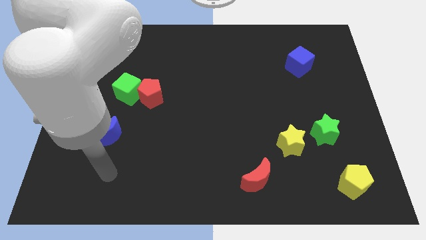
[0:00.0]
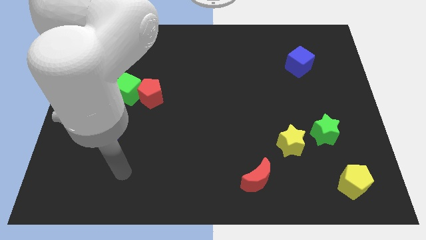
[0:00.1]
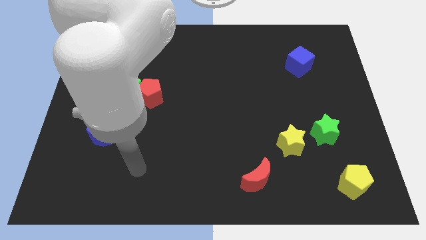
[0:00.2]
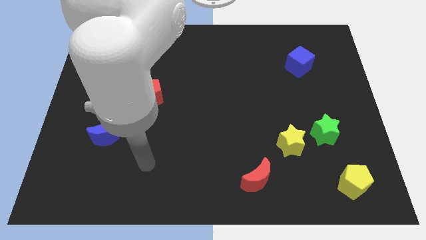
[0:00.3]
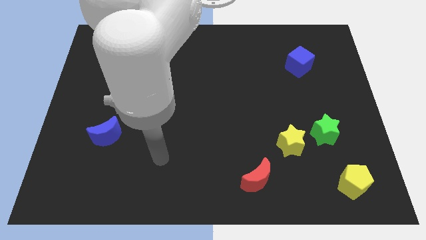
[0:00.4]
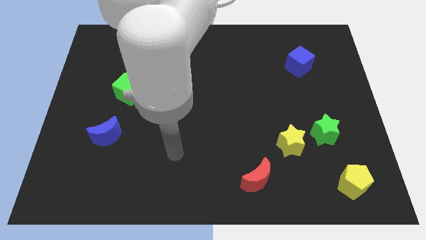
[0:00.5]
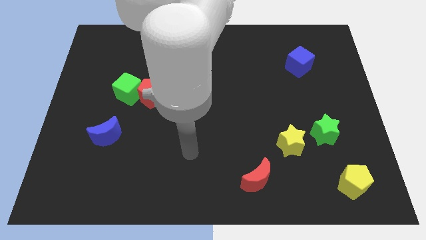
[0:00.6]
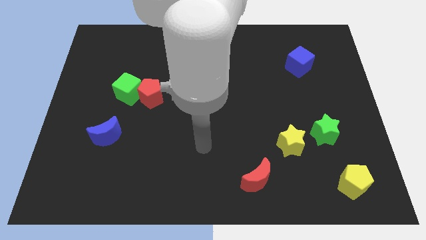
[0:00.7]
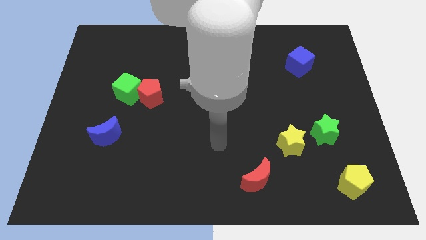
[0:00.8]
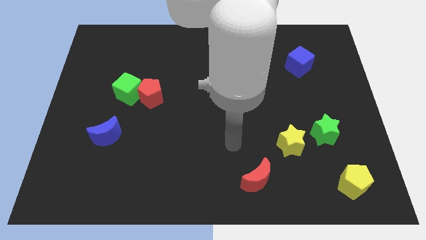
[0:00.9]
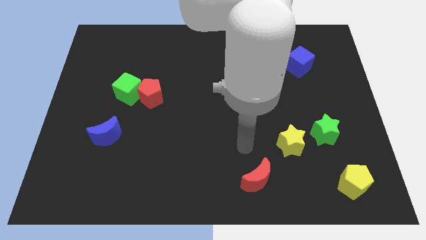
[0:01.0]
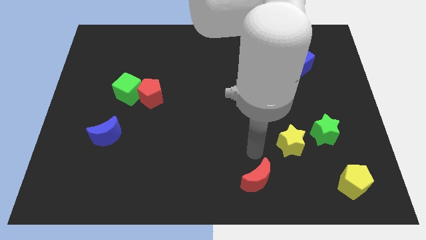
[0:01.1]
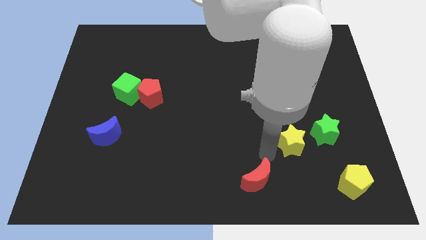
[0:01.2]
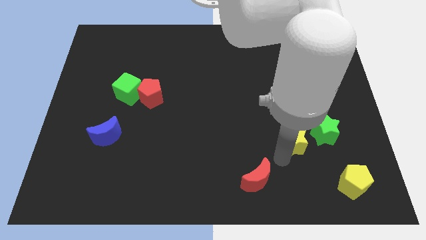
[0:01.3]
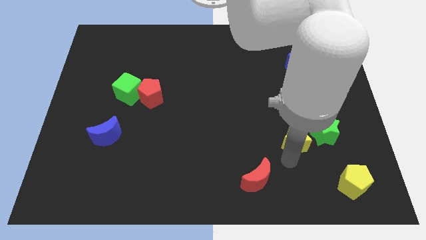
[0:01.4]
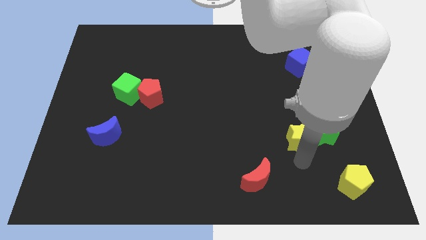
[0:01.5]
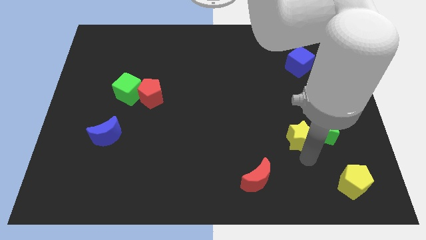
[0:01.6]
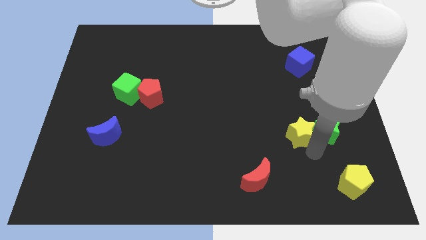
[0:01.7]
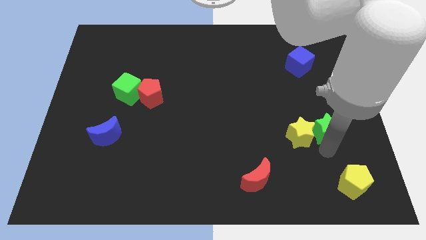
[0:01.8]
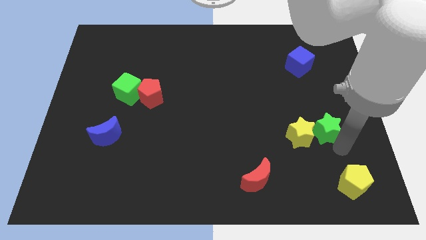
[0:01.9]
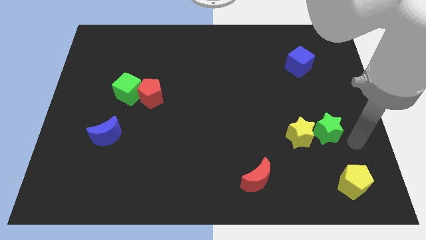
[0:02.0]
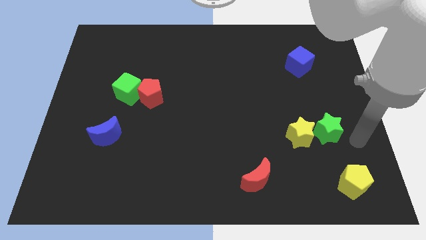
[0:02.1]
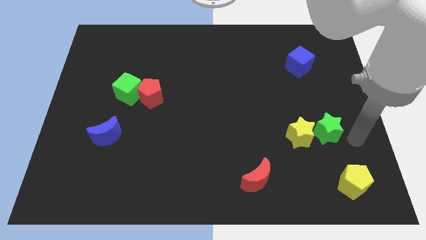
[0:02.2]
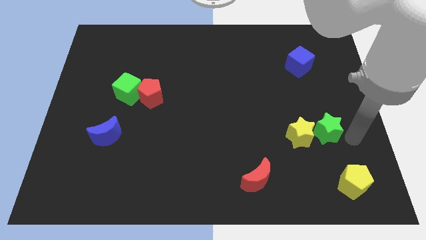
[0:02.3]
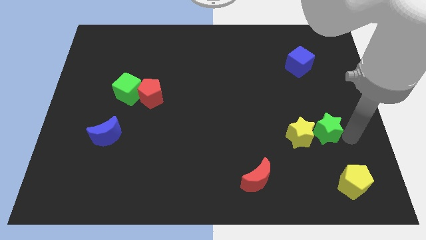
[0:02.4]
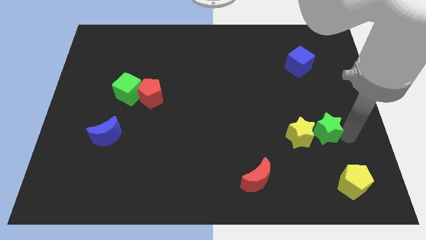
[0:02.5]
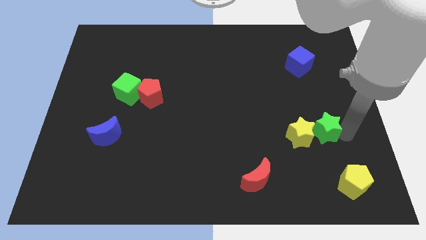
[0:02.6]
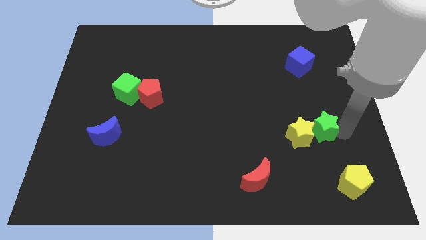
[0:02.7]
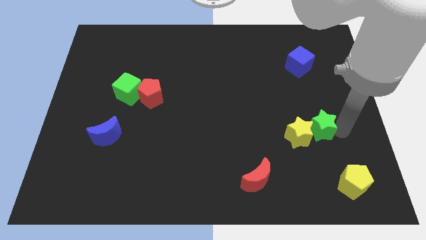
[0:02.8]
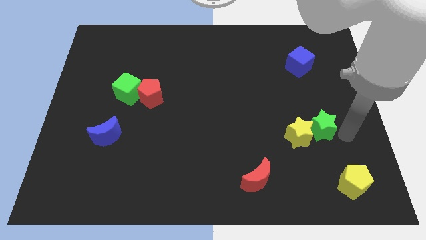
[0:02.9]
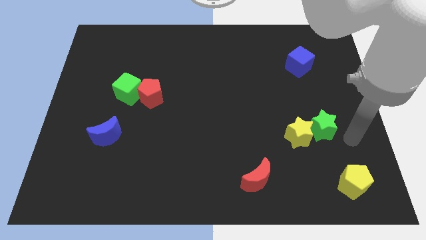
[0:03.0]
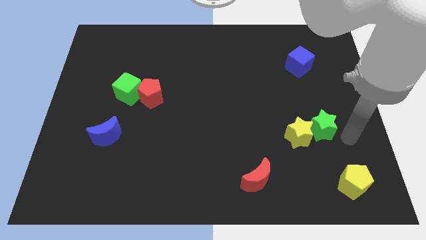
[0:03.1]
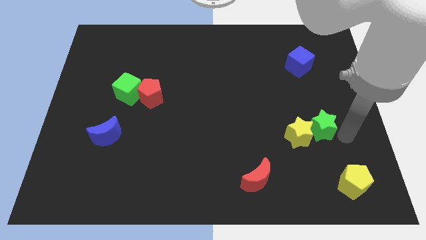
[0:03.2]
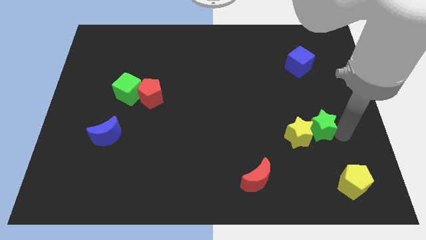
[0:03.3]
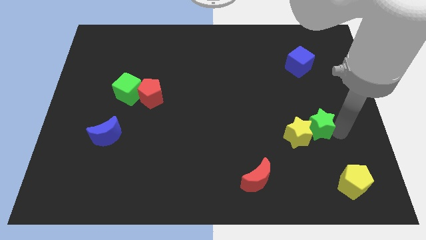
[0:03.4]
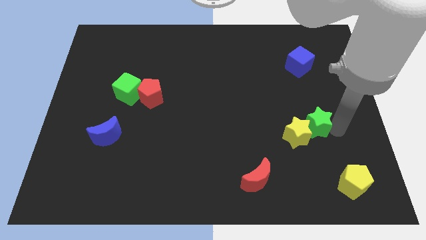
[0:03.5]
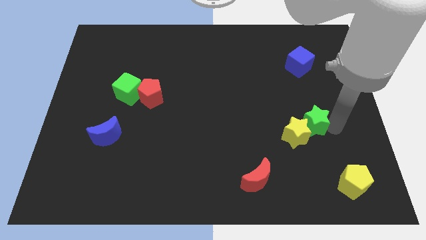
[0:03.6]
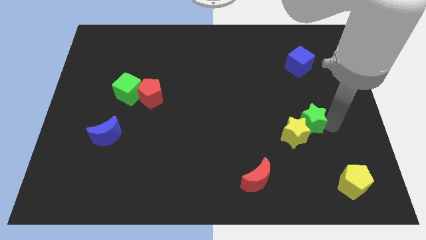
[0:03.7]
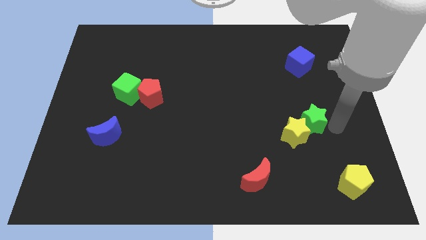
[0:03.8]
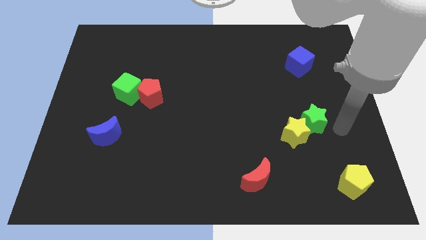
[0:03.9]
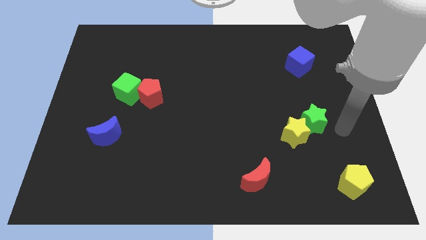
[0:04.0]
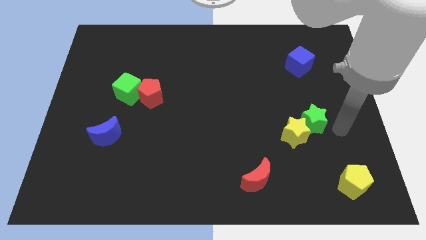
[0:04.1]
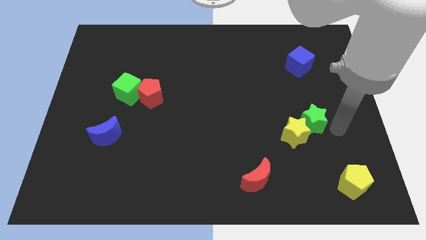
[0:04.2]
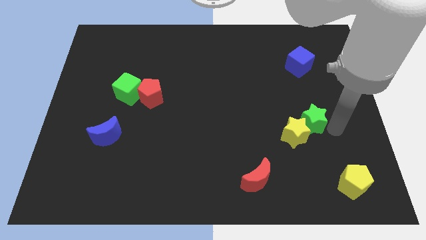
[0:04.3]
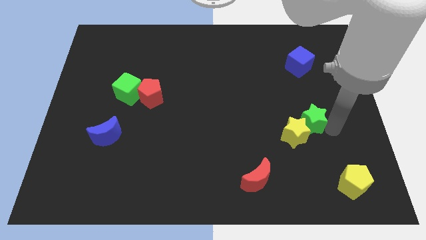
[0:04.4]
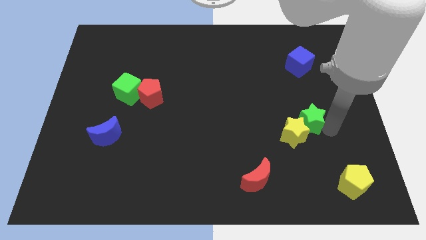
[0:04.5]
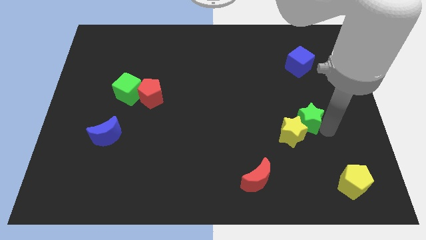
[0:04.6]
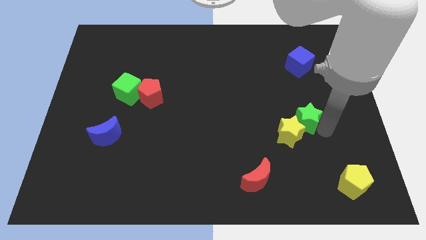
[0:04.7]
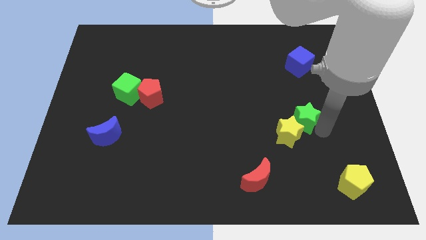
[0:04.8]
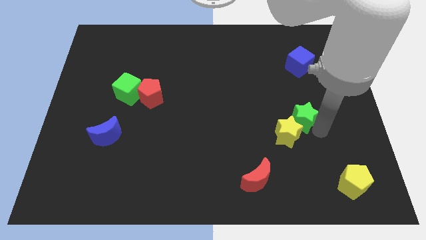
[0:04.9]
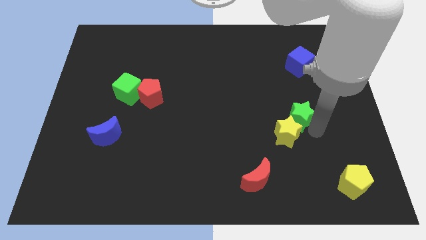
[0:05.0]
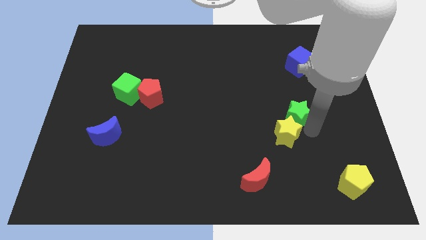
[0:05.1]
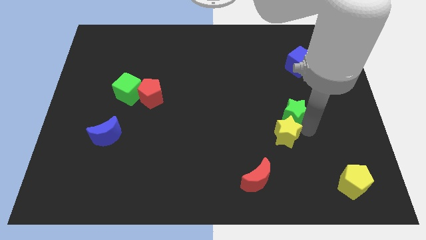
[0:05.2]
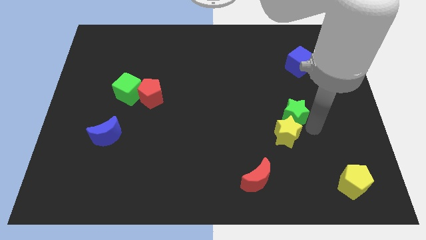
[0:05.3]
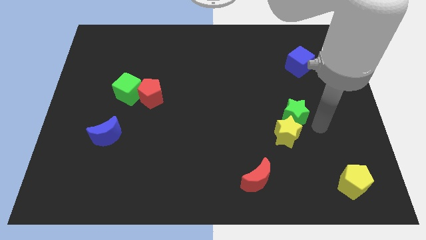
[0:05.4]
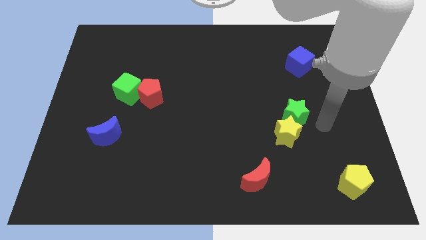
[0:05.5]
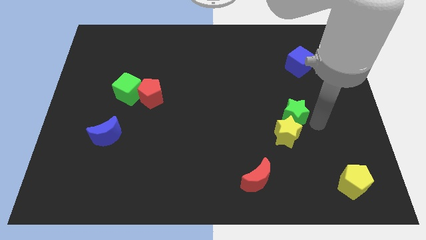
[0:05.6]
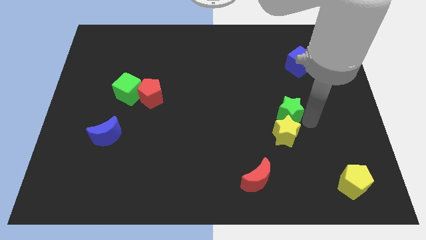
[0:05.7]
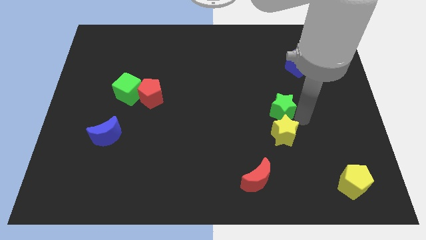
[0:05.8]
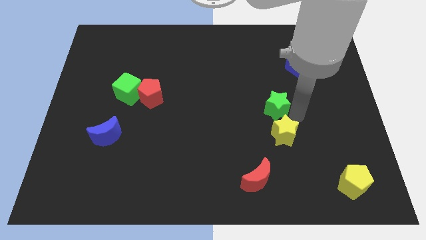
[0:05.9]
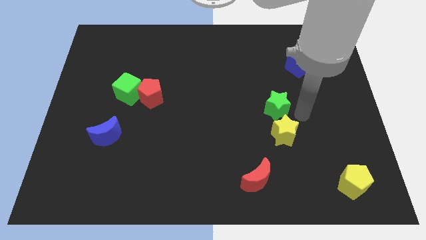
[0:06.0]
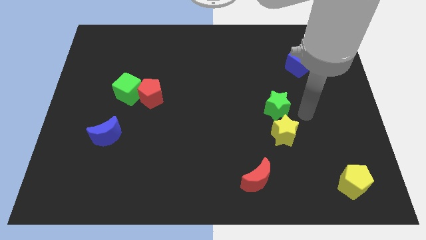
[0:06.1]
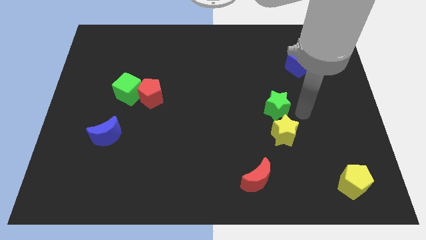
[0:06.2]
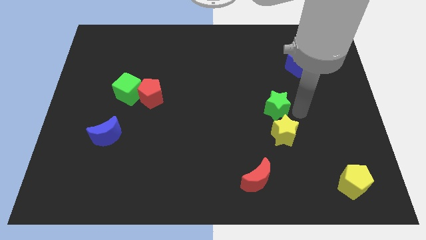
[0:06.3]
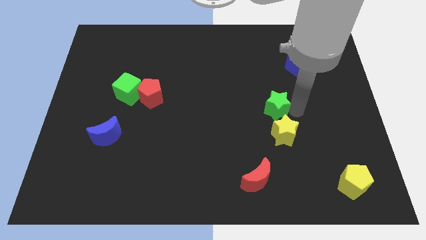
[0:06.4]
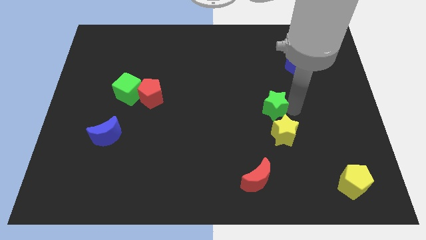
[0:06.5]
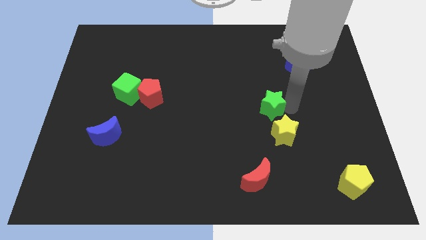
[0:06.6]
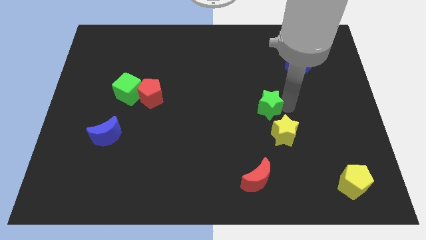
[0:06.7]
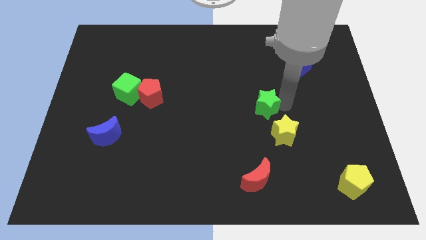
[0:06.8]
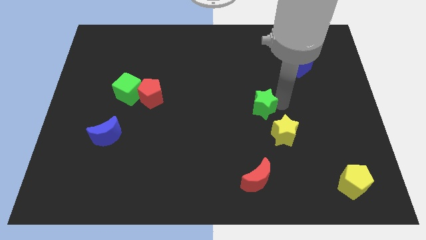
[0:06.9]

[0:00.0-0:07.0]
put the green star to the middle of the board
